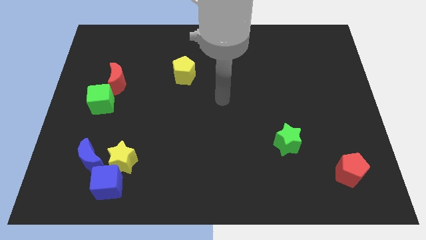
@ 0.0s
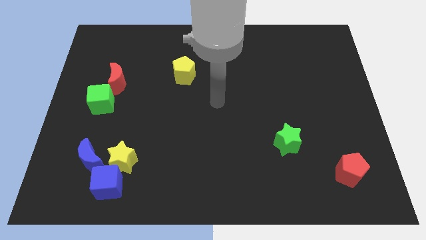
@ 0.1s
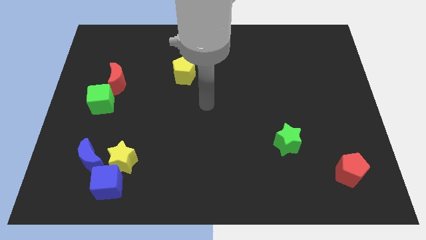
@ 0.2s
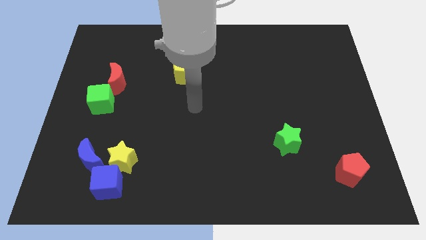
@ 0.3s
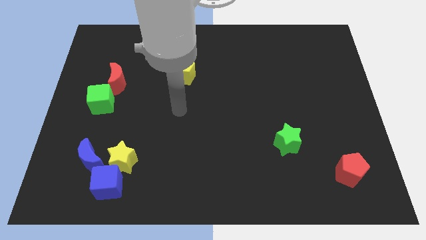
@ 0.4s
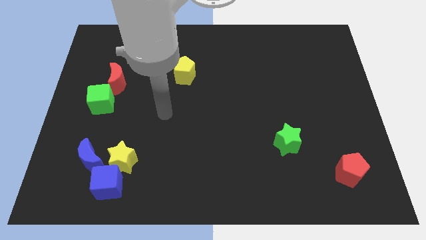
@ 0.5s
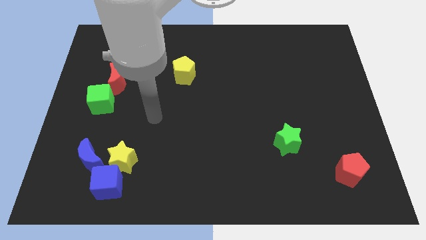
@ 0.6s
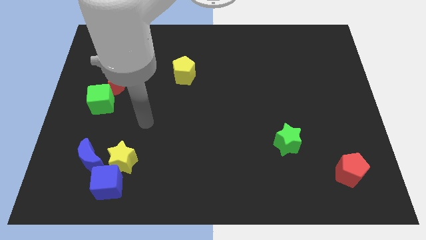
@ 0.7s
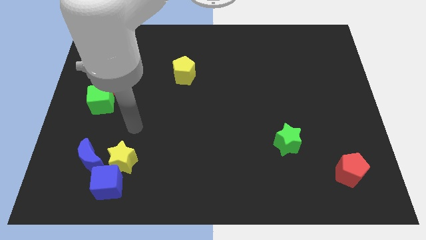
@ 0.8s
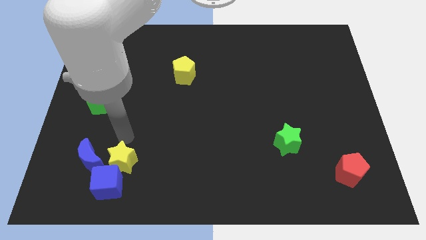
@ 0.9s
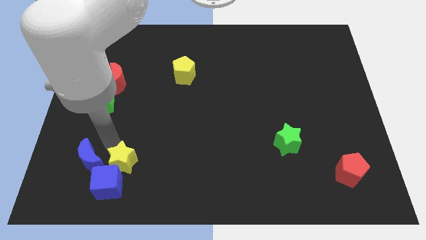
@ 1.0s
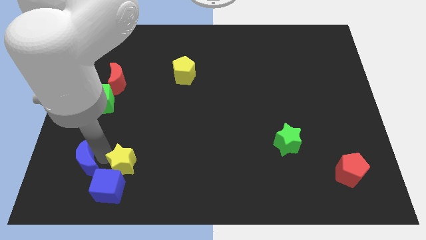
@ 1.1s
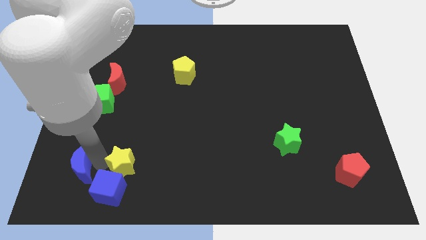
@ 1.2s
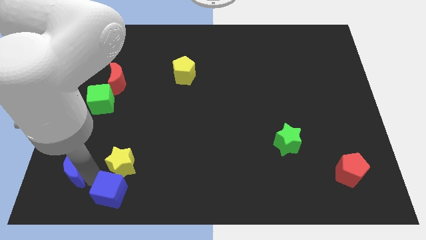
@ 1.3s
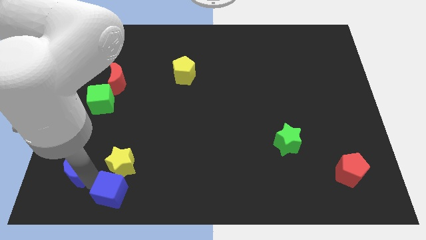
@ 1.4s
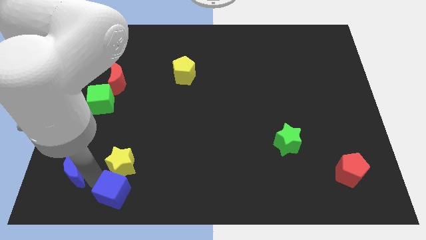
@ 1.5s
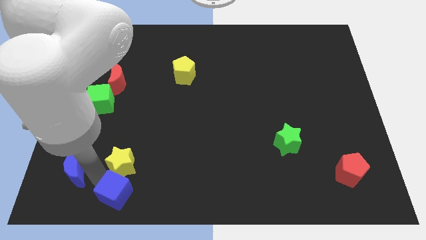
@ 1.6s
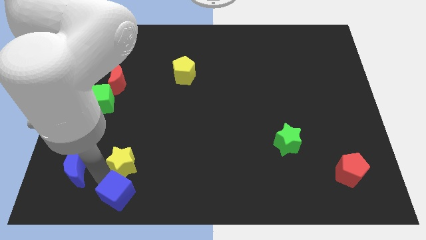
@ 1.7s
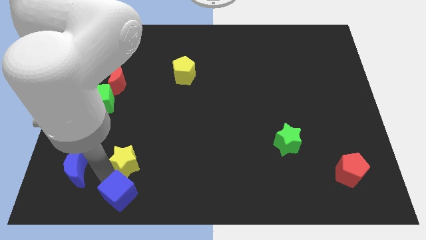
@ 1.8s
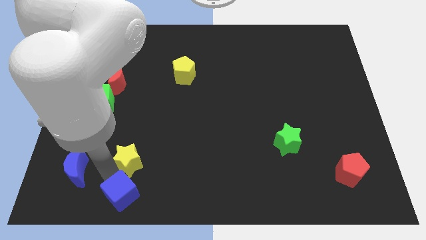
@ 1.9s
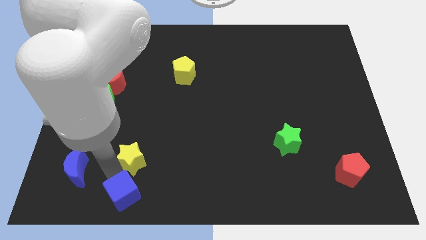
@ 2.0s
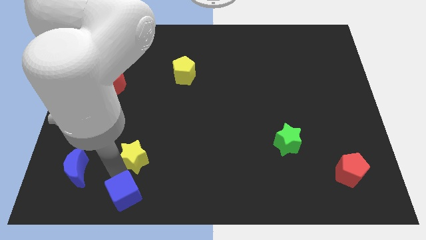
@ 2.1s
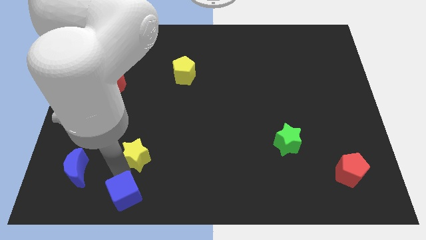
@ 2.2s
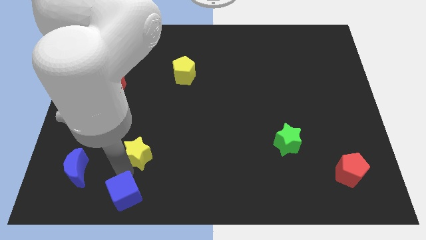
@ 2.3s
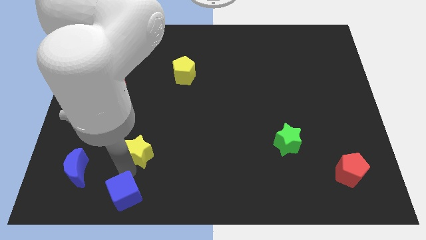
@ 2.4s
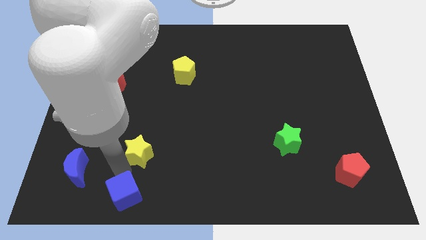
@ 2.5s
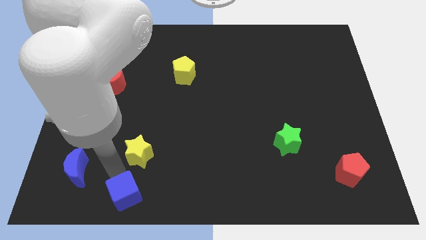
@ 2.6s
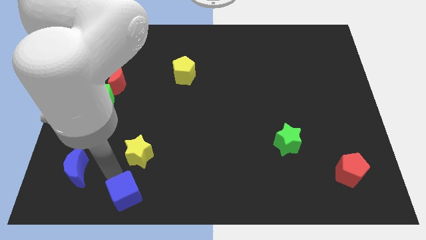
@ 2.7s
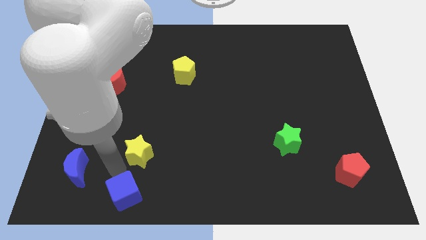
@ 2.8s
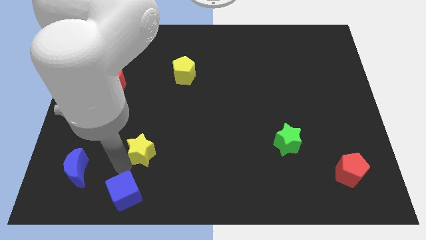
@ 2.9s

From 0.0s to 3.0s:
move the yellow star away from the blue cube and blue moon

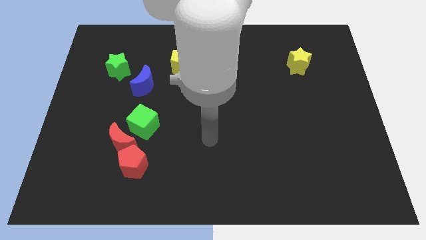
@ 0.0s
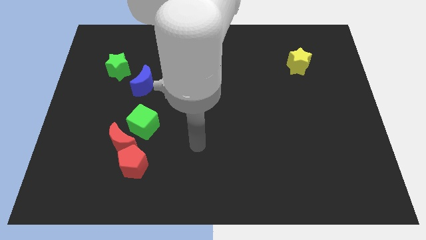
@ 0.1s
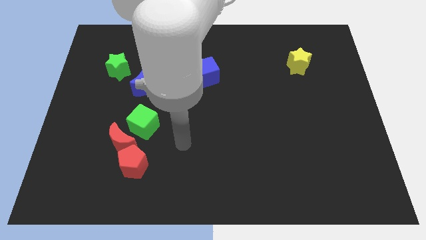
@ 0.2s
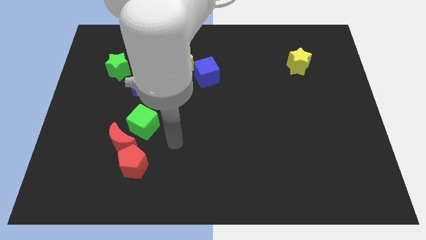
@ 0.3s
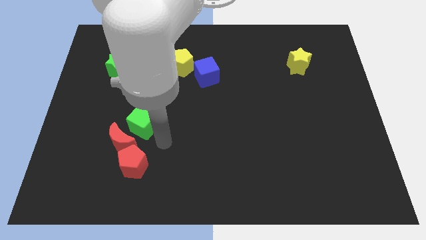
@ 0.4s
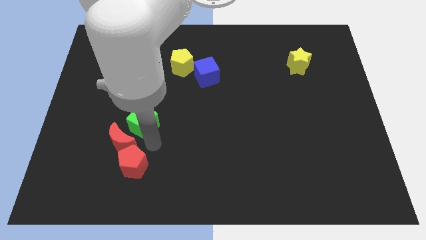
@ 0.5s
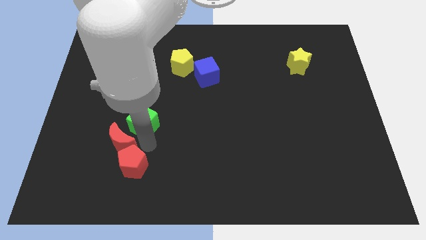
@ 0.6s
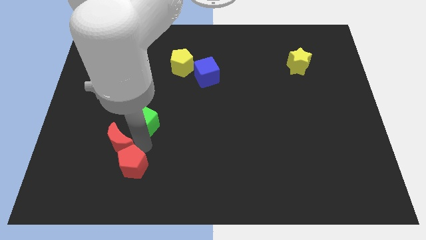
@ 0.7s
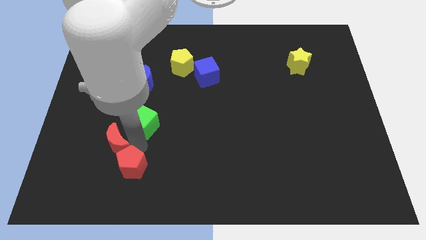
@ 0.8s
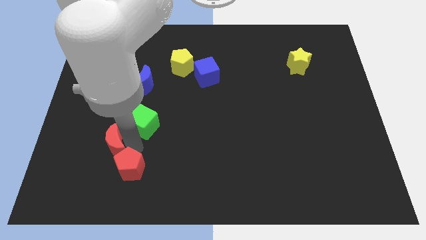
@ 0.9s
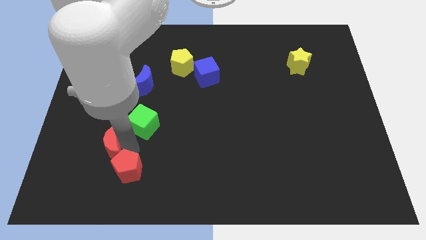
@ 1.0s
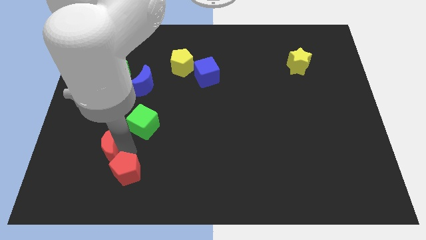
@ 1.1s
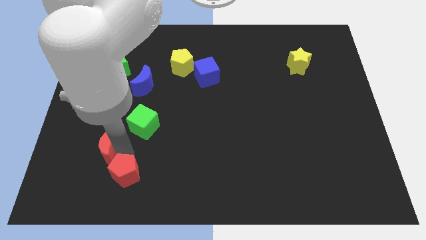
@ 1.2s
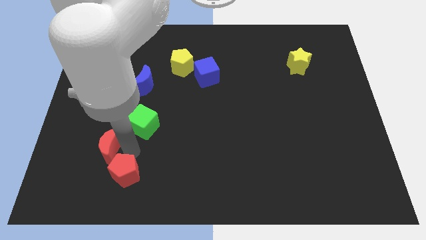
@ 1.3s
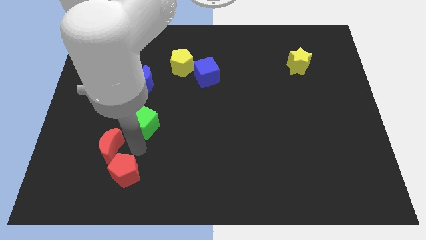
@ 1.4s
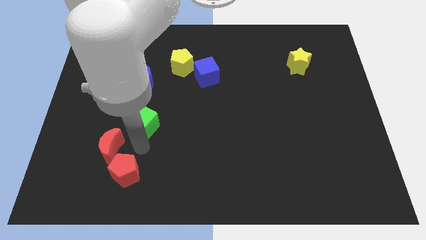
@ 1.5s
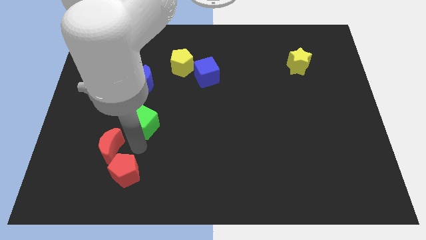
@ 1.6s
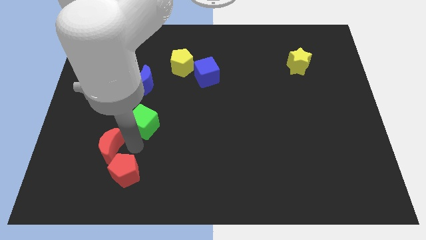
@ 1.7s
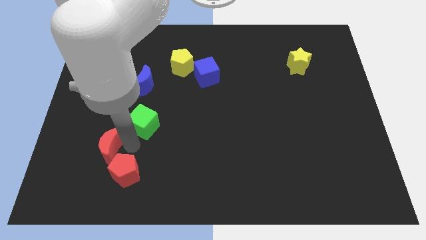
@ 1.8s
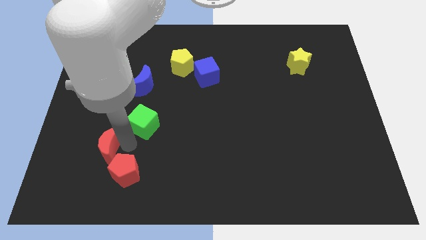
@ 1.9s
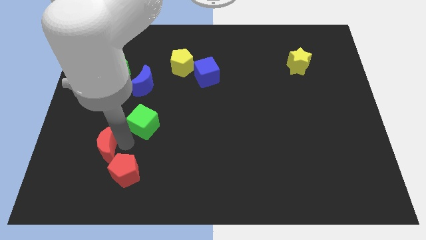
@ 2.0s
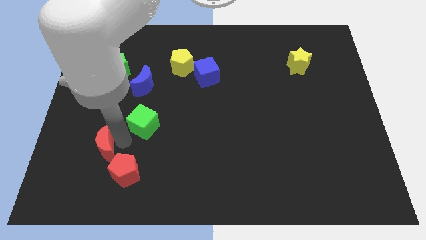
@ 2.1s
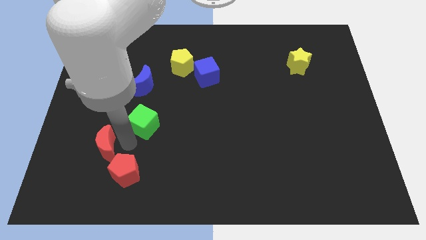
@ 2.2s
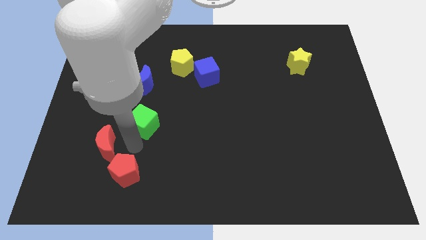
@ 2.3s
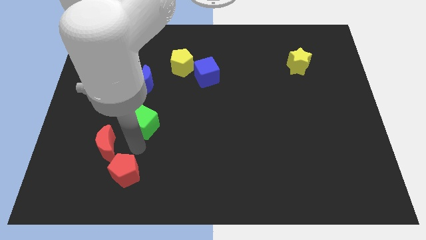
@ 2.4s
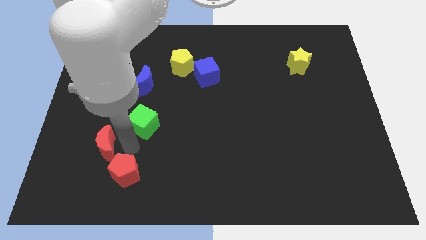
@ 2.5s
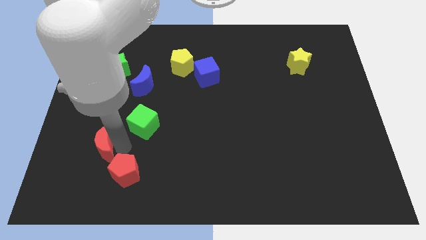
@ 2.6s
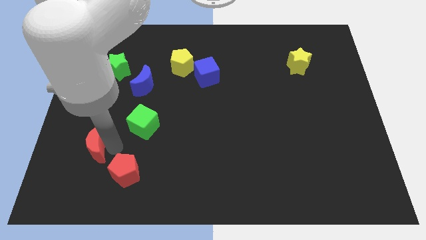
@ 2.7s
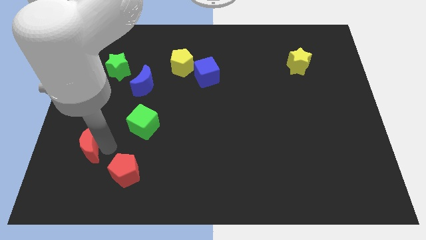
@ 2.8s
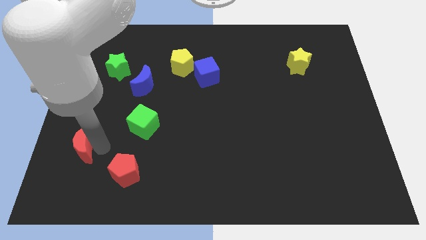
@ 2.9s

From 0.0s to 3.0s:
move the red moon away from the red pentagon and green cube

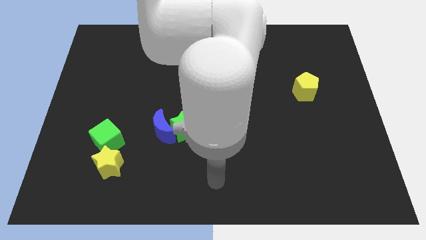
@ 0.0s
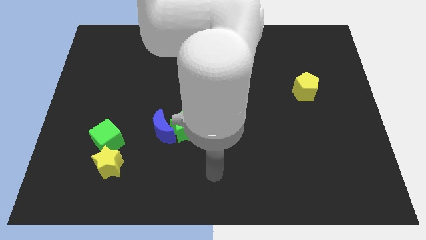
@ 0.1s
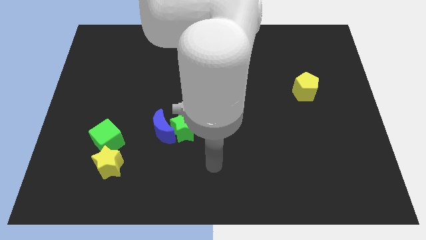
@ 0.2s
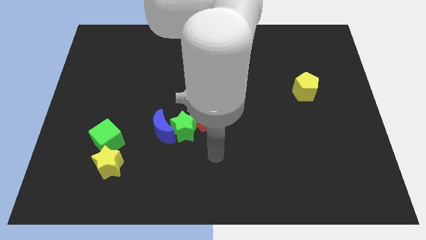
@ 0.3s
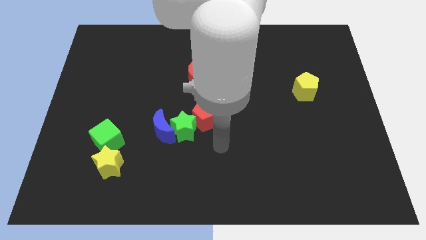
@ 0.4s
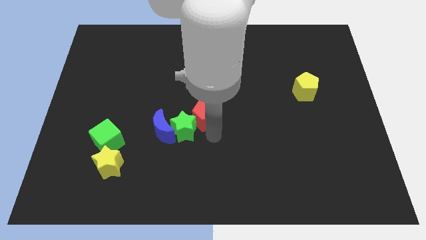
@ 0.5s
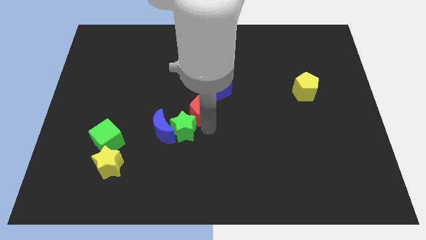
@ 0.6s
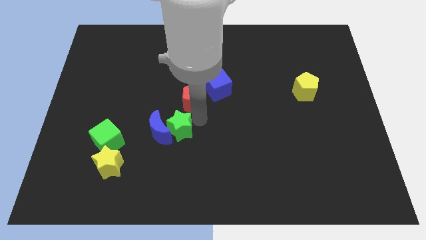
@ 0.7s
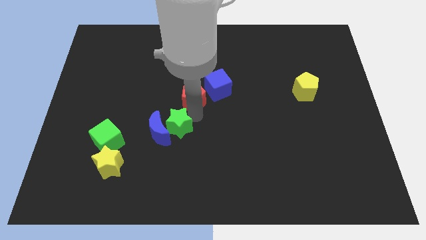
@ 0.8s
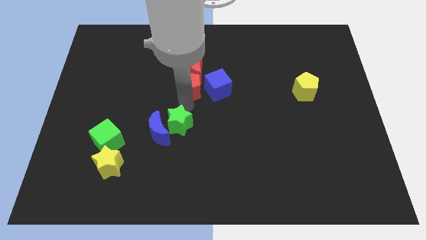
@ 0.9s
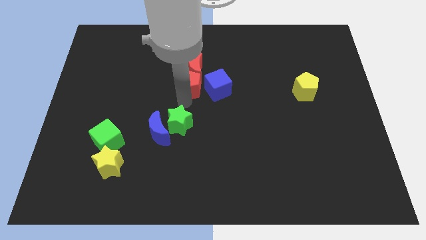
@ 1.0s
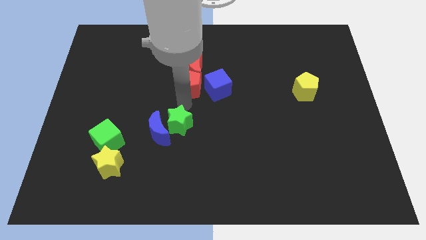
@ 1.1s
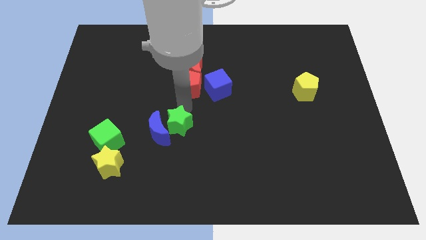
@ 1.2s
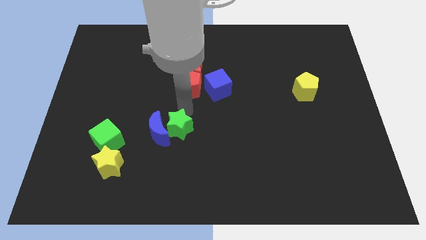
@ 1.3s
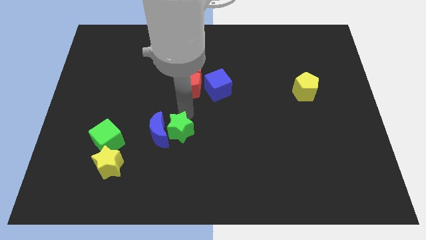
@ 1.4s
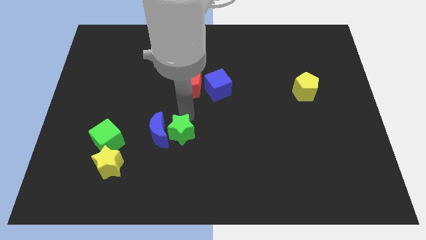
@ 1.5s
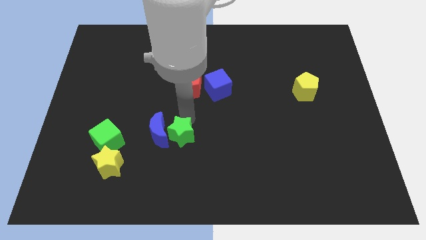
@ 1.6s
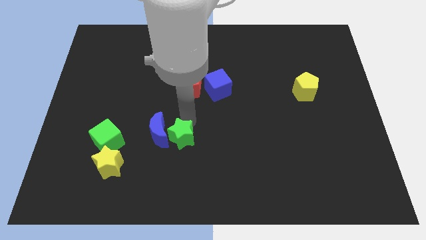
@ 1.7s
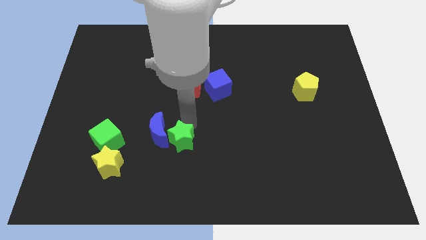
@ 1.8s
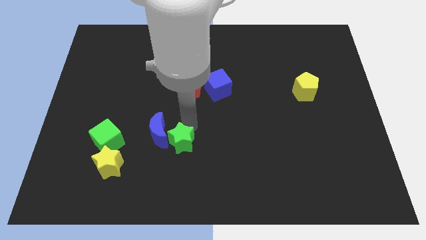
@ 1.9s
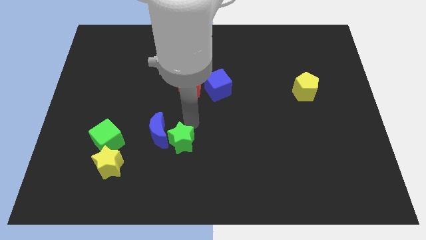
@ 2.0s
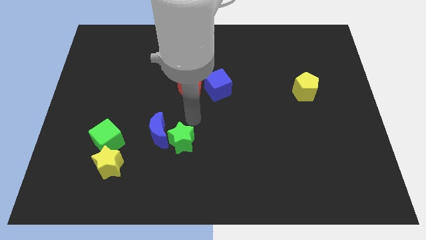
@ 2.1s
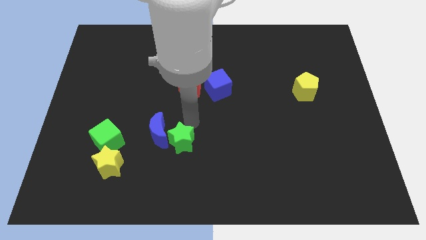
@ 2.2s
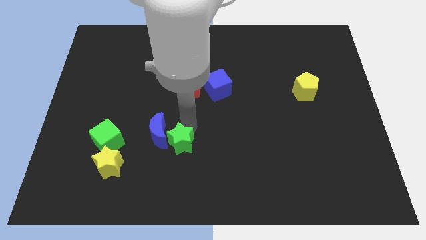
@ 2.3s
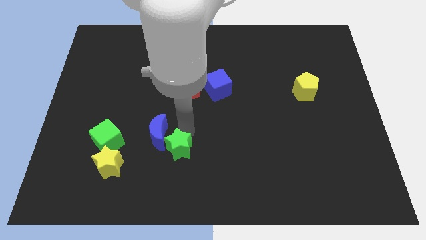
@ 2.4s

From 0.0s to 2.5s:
move the green star away from the blue moon and red pentagon

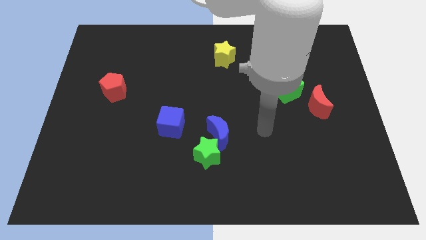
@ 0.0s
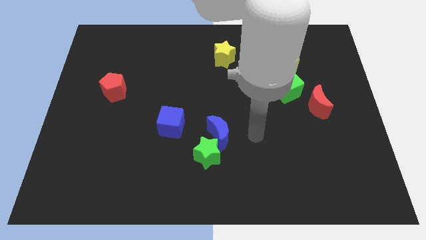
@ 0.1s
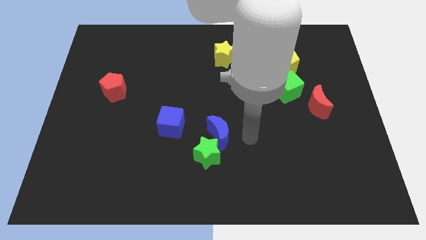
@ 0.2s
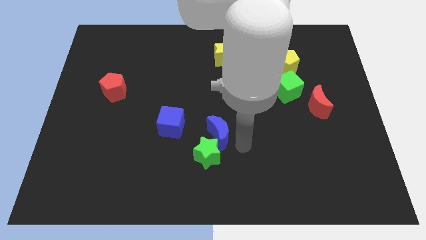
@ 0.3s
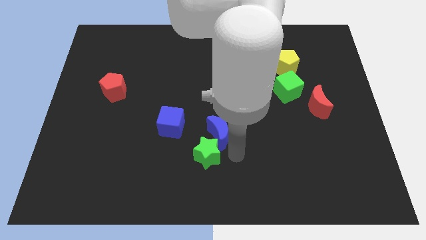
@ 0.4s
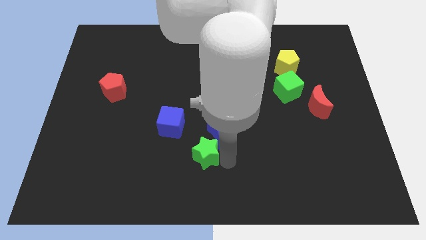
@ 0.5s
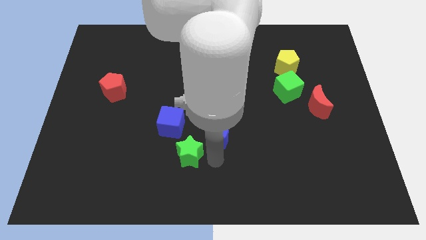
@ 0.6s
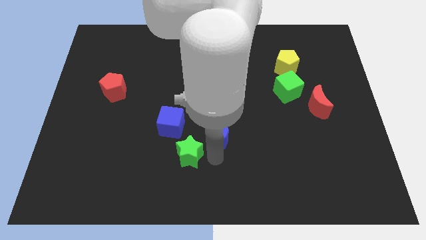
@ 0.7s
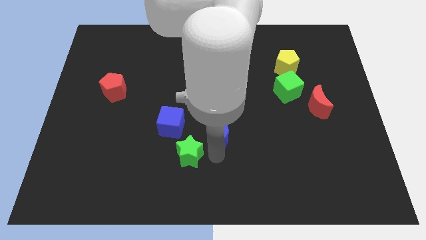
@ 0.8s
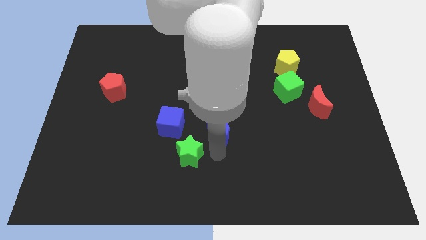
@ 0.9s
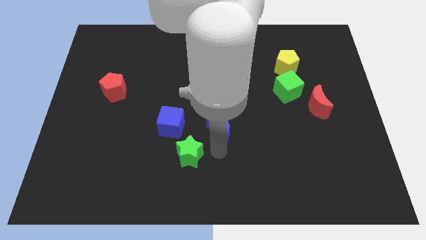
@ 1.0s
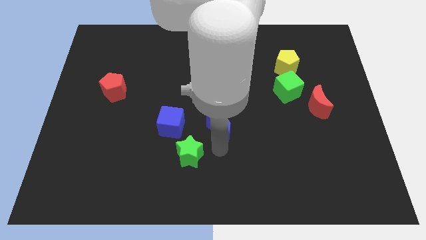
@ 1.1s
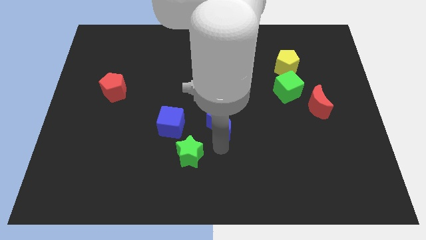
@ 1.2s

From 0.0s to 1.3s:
pull the blue moon apart from the green star
